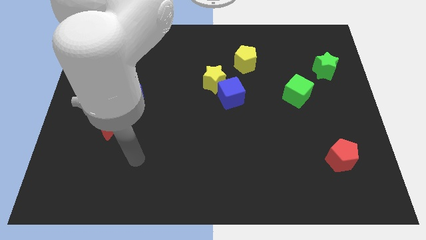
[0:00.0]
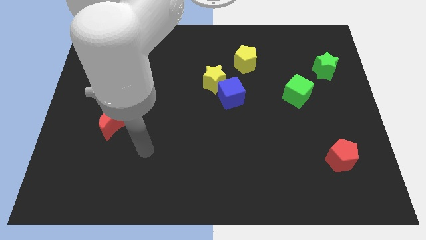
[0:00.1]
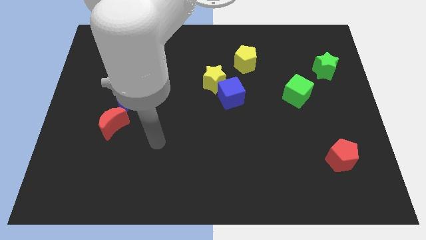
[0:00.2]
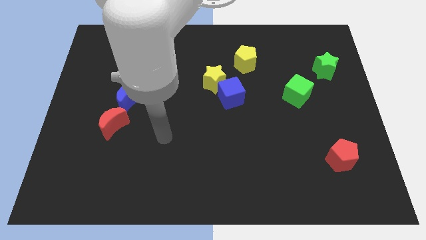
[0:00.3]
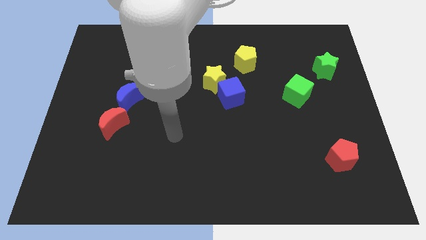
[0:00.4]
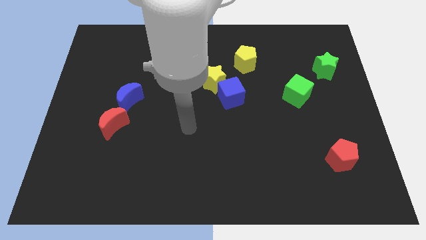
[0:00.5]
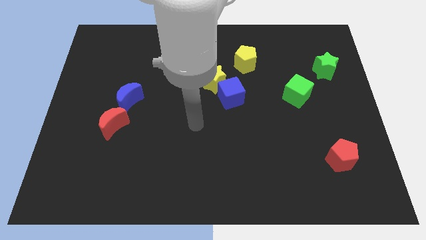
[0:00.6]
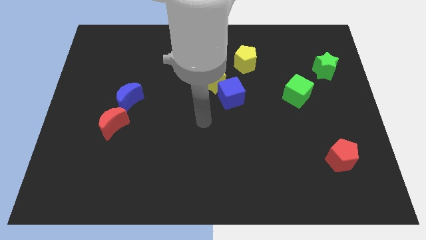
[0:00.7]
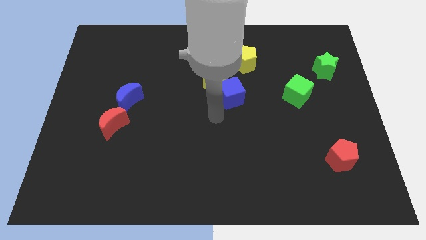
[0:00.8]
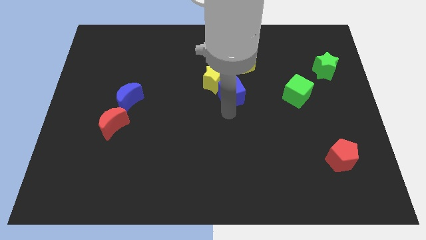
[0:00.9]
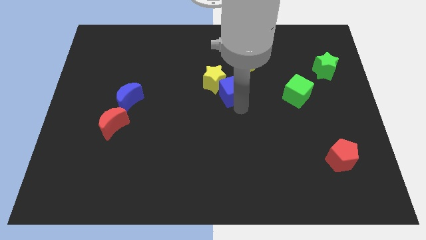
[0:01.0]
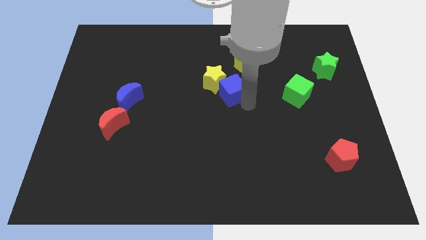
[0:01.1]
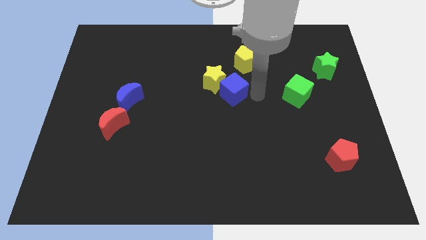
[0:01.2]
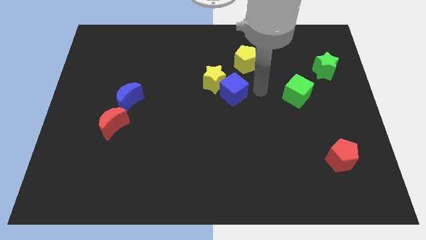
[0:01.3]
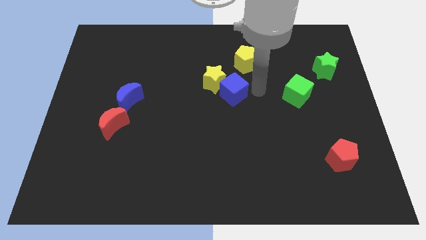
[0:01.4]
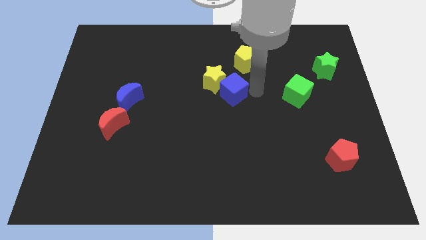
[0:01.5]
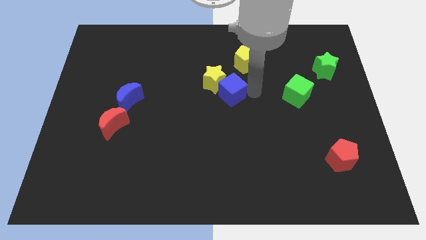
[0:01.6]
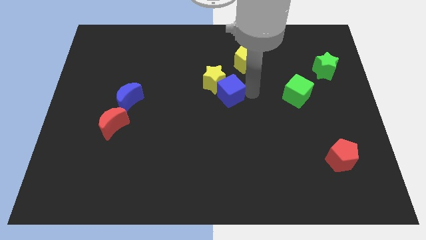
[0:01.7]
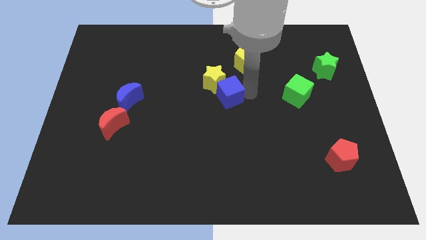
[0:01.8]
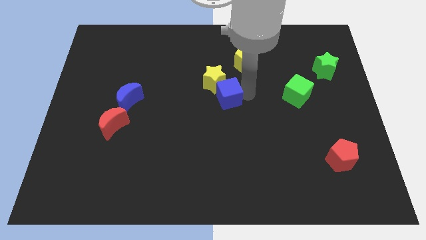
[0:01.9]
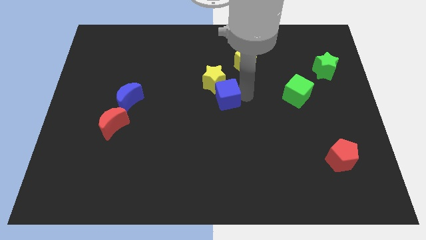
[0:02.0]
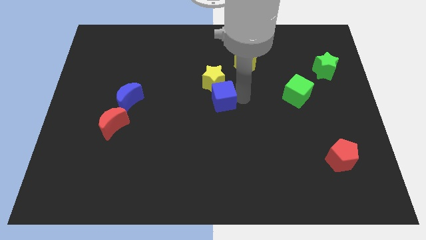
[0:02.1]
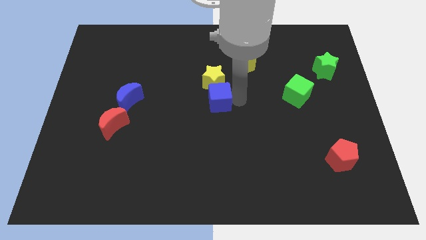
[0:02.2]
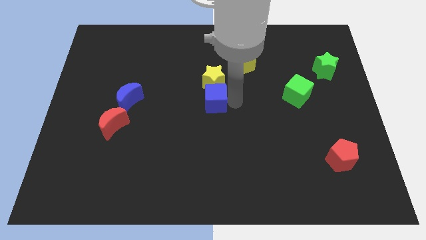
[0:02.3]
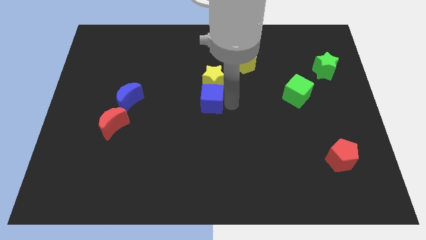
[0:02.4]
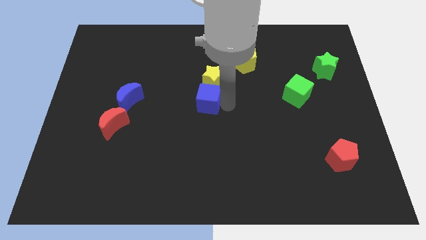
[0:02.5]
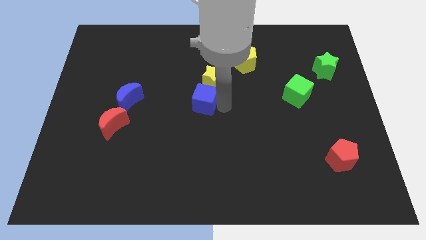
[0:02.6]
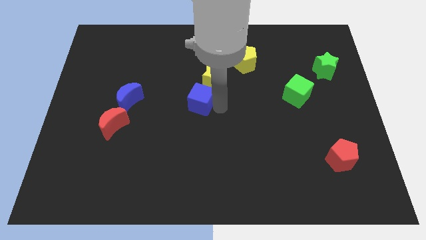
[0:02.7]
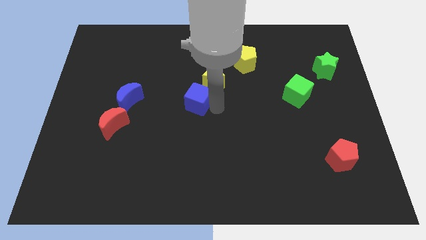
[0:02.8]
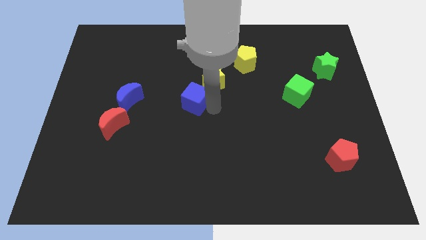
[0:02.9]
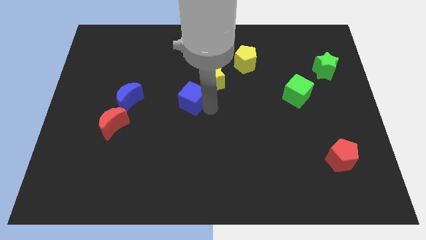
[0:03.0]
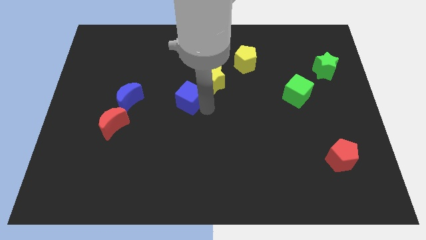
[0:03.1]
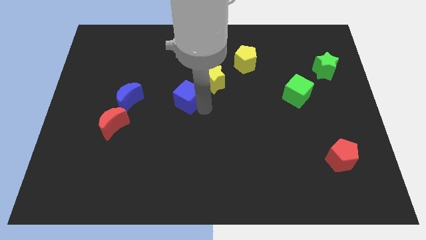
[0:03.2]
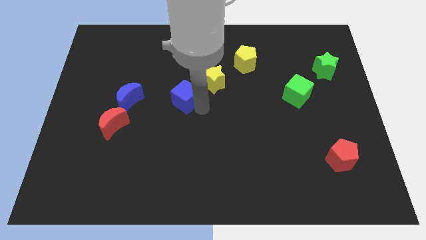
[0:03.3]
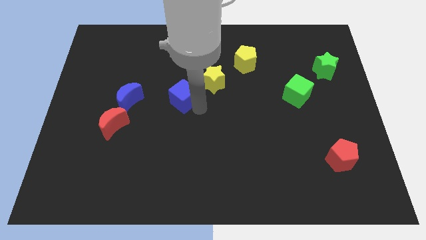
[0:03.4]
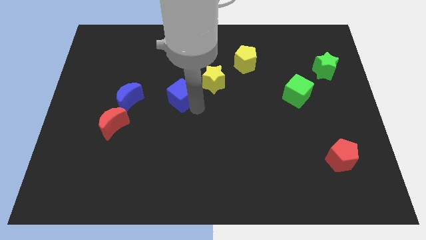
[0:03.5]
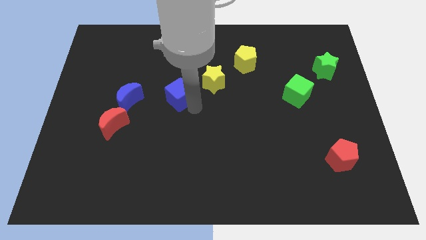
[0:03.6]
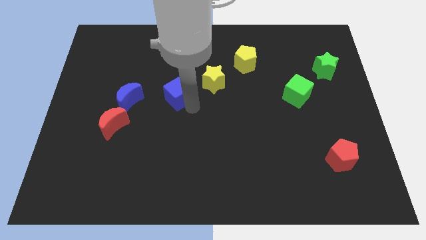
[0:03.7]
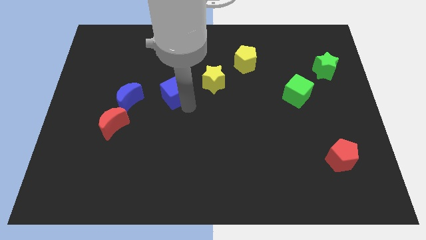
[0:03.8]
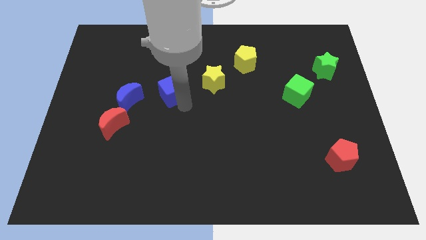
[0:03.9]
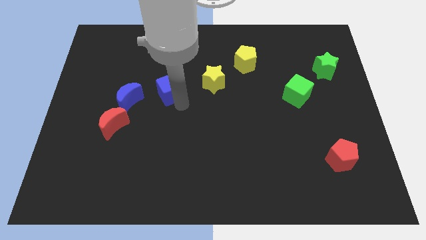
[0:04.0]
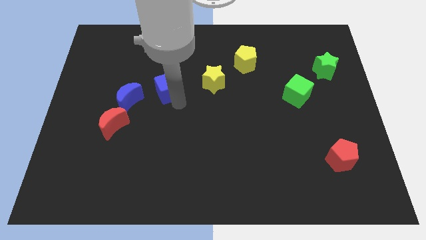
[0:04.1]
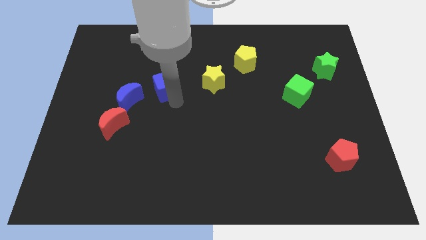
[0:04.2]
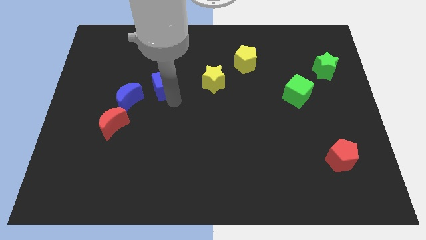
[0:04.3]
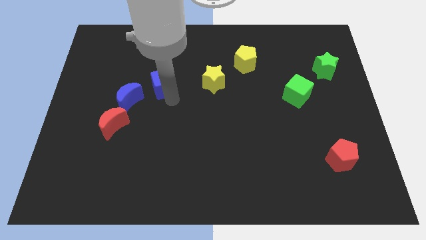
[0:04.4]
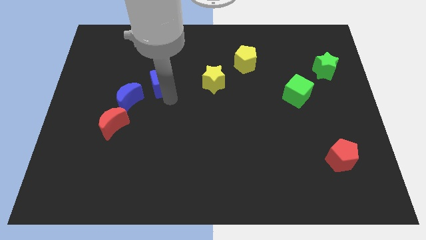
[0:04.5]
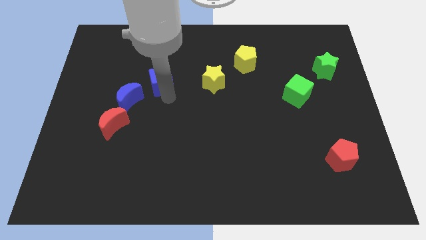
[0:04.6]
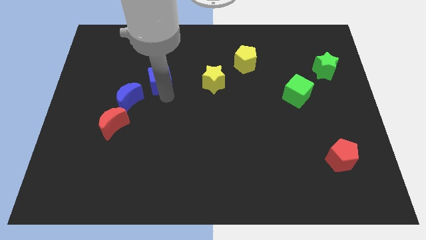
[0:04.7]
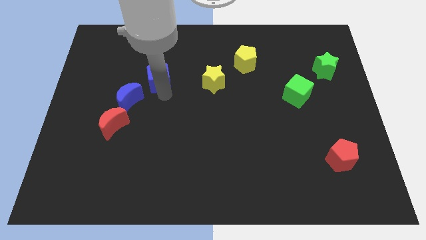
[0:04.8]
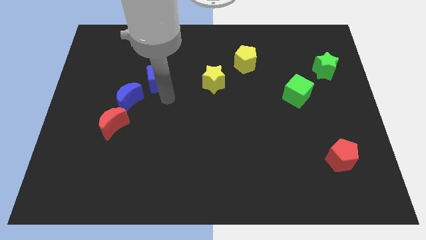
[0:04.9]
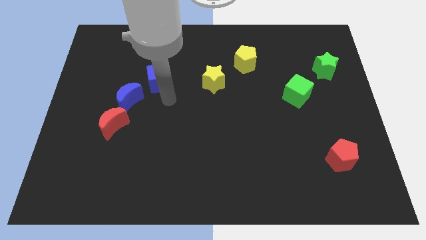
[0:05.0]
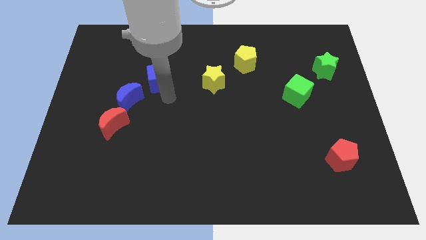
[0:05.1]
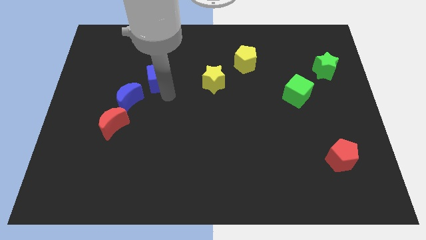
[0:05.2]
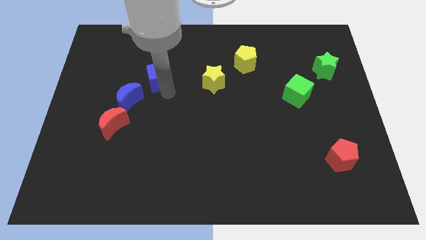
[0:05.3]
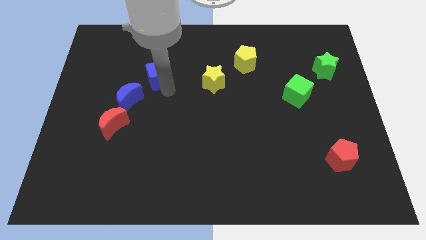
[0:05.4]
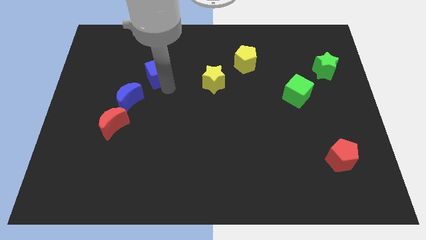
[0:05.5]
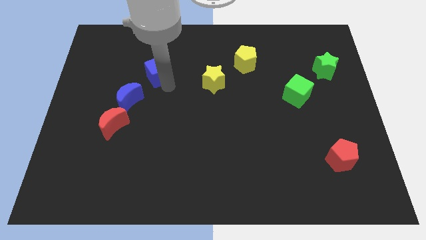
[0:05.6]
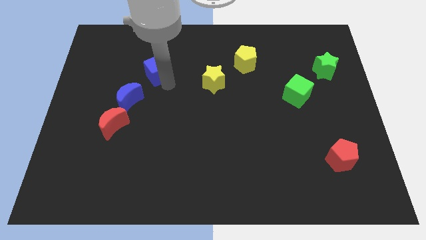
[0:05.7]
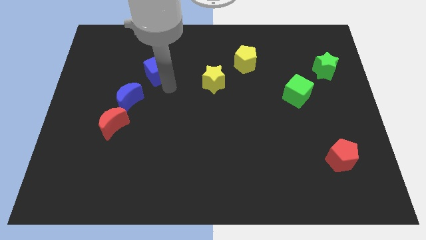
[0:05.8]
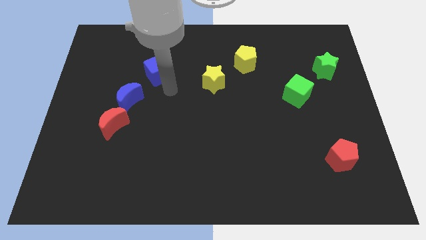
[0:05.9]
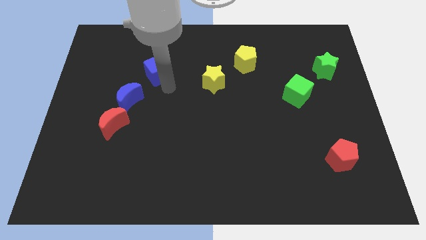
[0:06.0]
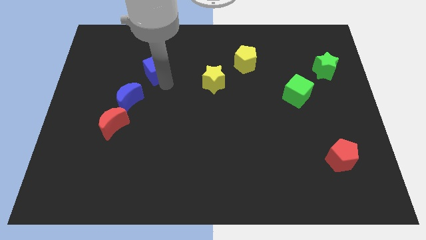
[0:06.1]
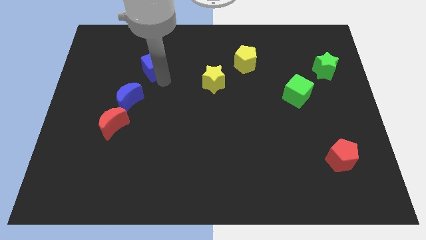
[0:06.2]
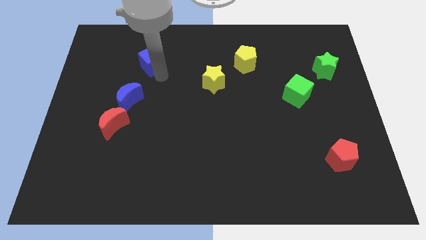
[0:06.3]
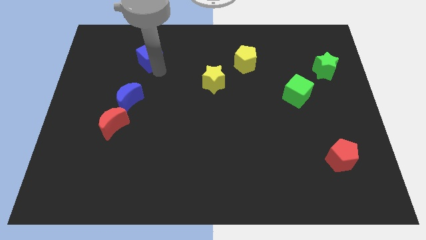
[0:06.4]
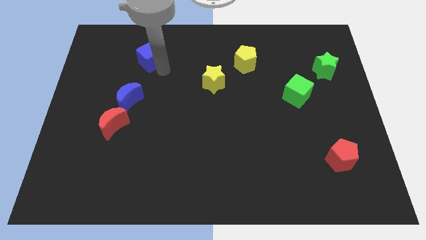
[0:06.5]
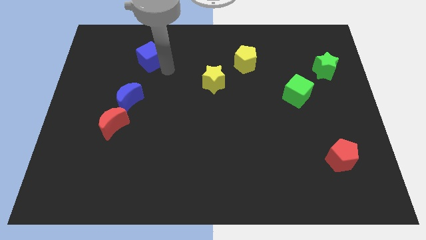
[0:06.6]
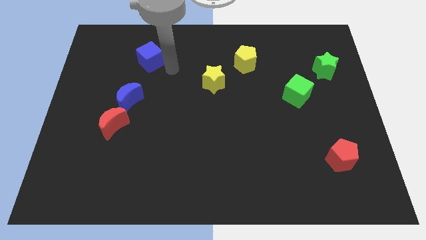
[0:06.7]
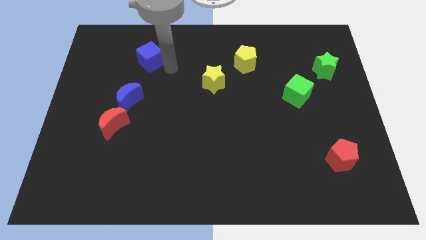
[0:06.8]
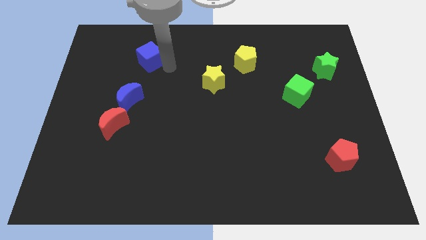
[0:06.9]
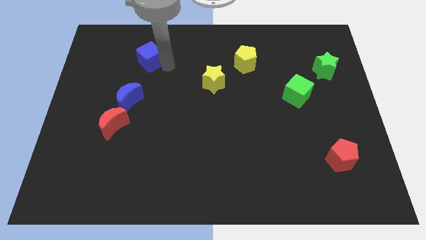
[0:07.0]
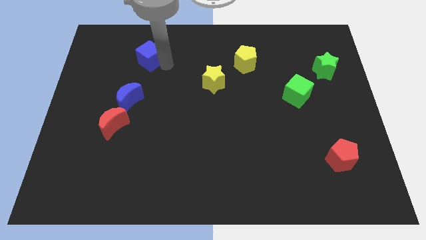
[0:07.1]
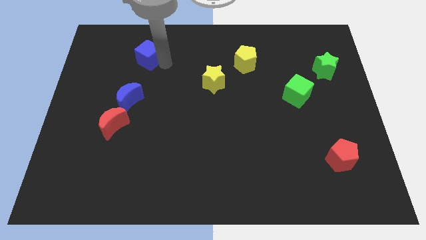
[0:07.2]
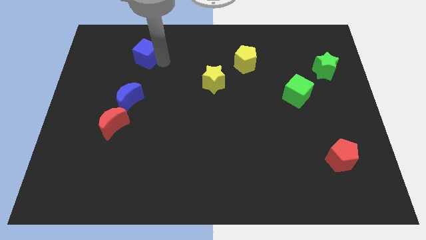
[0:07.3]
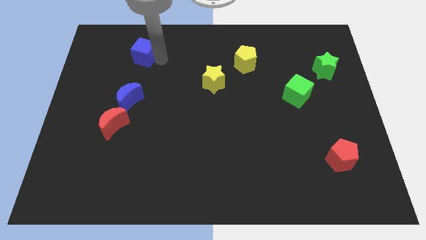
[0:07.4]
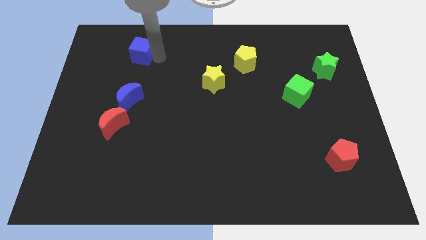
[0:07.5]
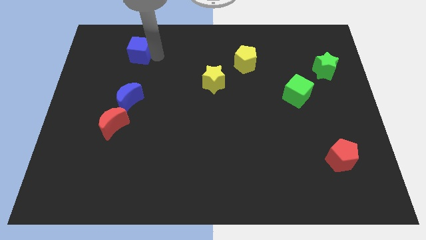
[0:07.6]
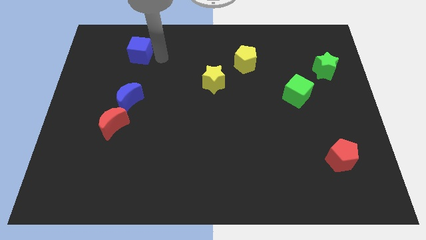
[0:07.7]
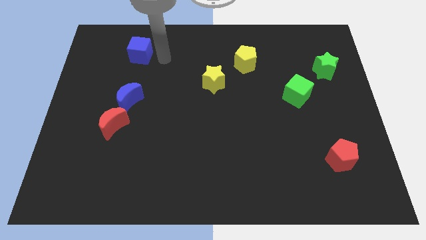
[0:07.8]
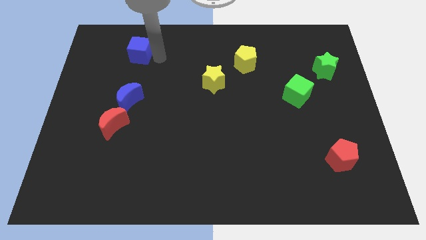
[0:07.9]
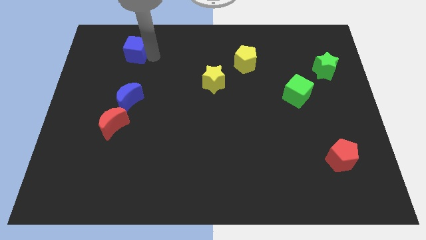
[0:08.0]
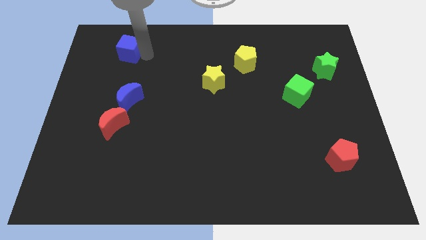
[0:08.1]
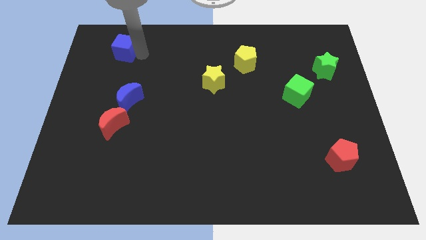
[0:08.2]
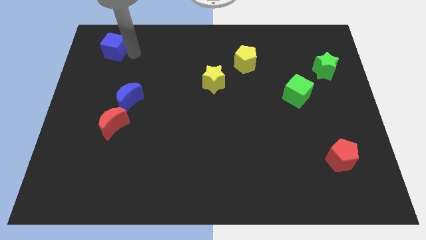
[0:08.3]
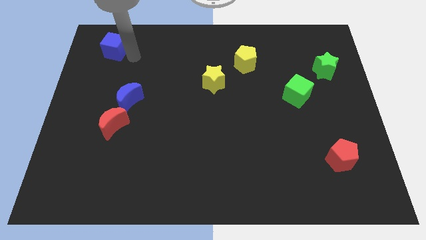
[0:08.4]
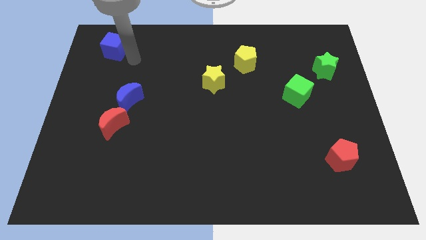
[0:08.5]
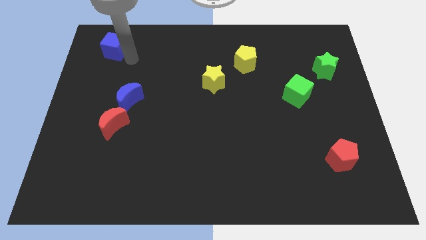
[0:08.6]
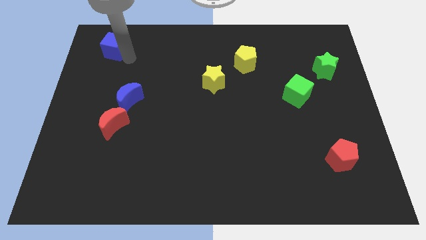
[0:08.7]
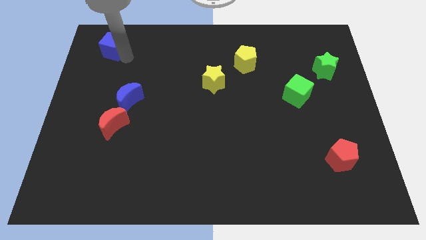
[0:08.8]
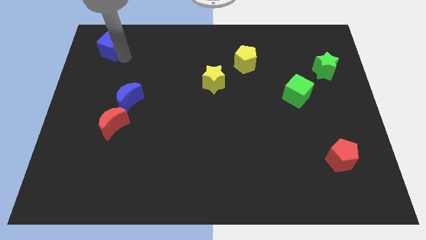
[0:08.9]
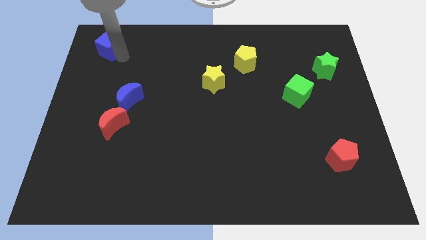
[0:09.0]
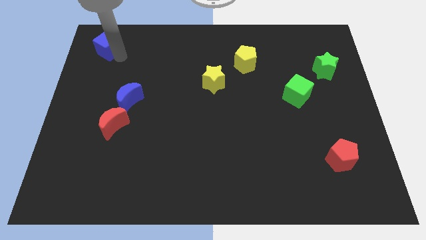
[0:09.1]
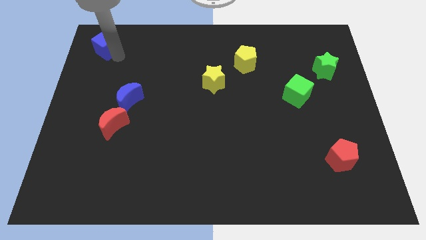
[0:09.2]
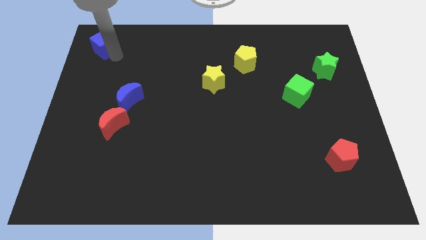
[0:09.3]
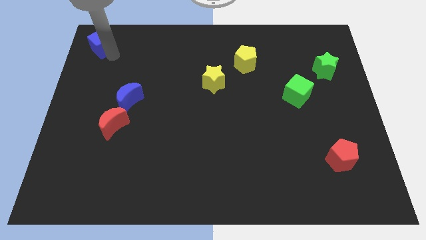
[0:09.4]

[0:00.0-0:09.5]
put the blue cube to the top left corner
